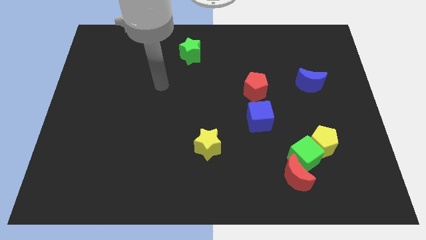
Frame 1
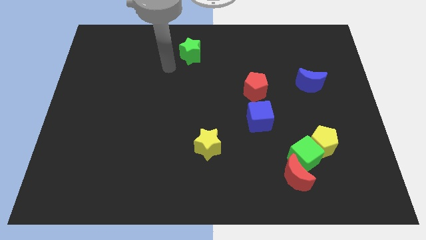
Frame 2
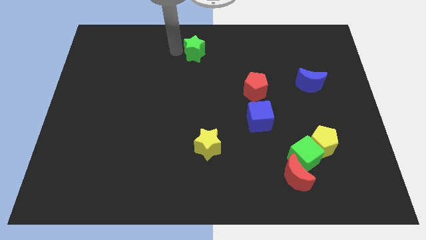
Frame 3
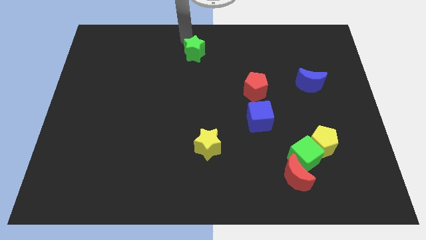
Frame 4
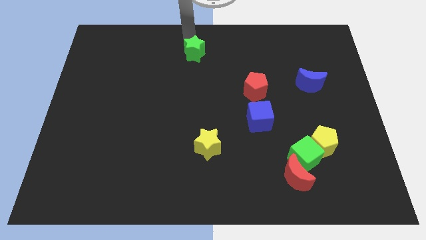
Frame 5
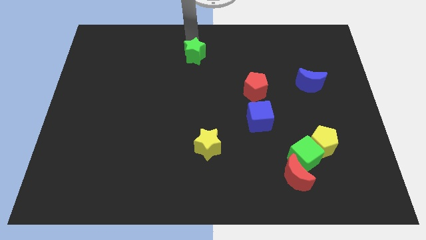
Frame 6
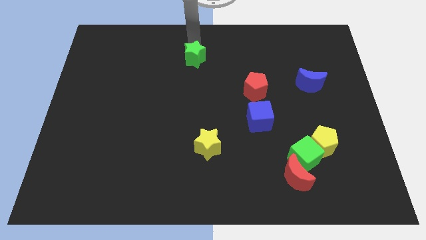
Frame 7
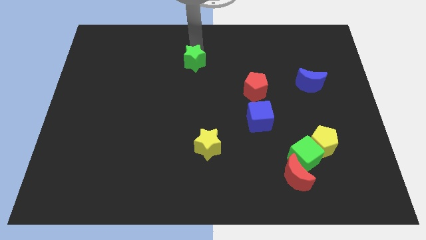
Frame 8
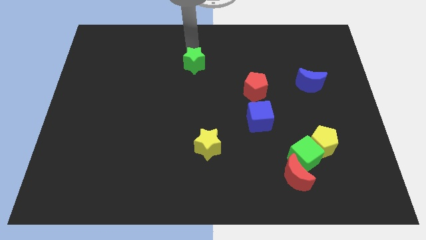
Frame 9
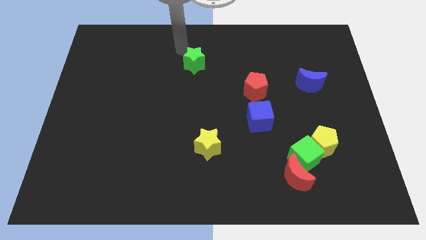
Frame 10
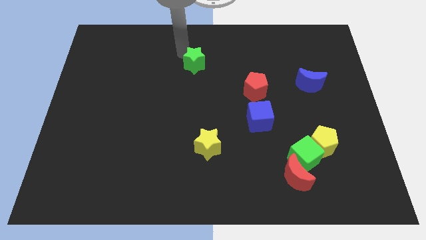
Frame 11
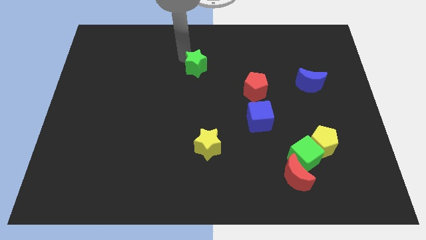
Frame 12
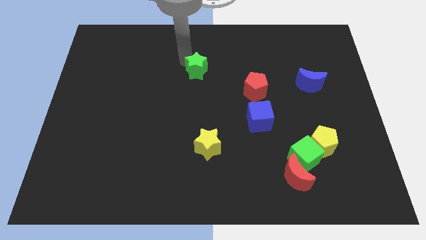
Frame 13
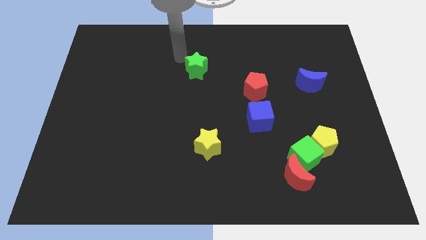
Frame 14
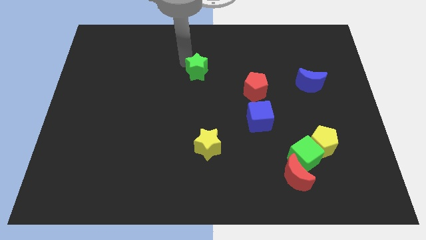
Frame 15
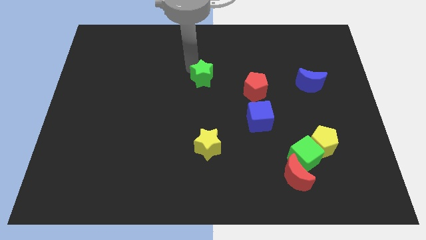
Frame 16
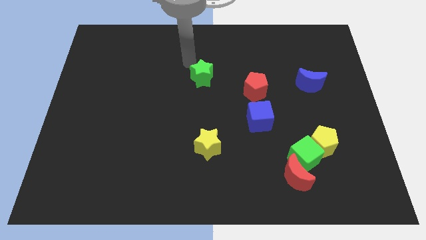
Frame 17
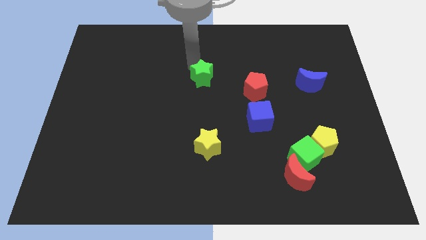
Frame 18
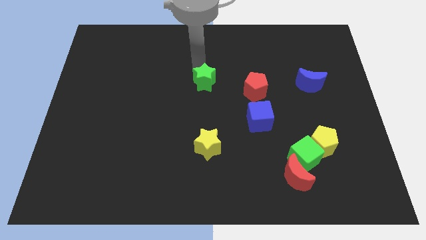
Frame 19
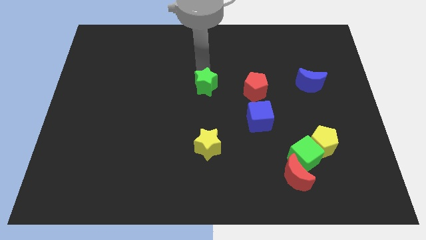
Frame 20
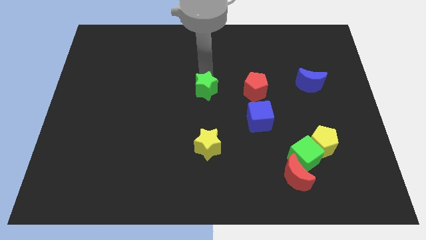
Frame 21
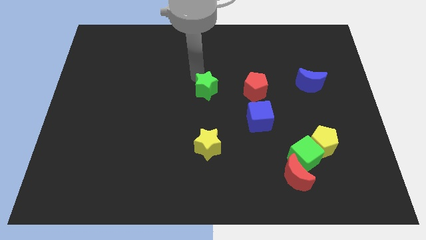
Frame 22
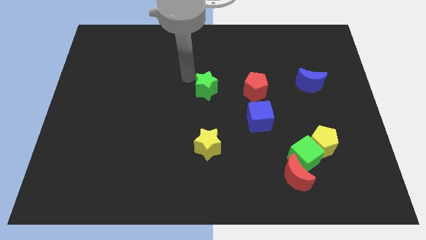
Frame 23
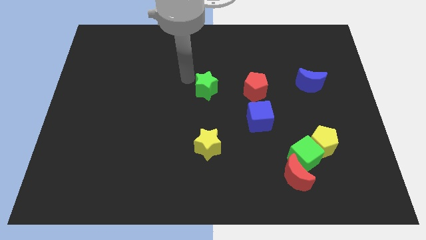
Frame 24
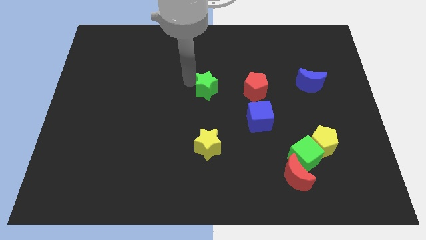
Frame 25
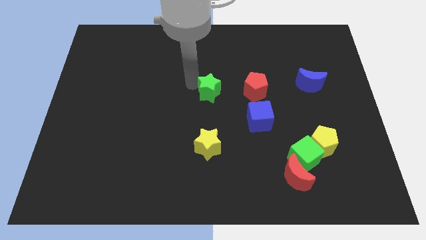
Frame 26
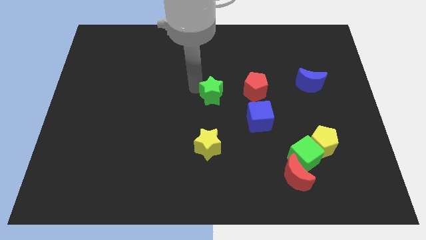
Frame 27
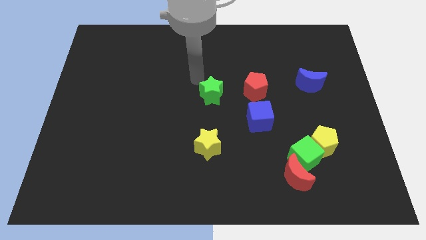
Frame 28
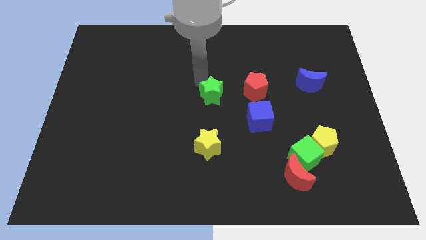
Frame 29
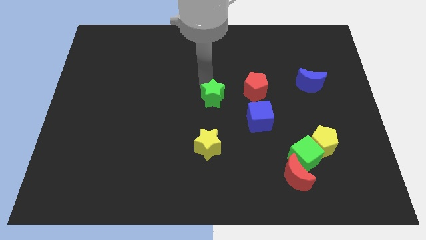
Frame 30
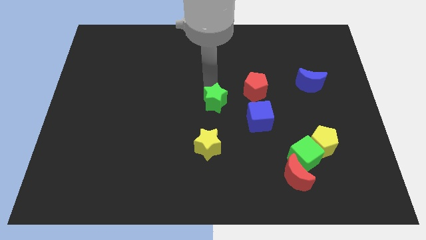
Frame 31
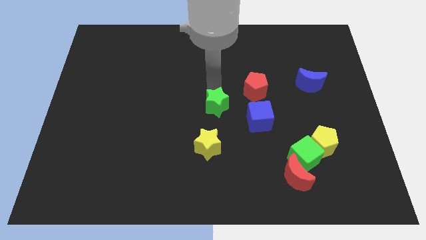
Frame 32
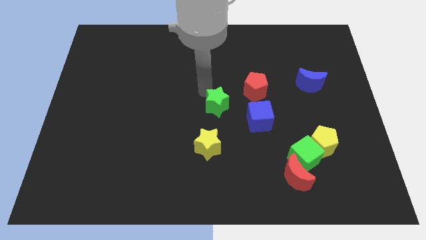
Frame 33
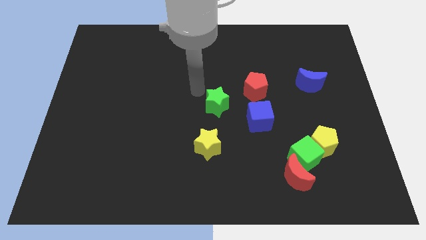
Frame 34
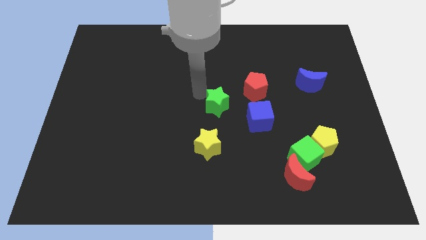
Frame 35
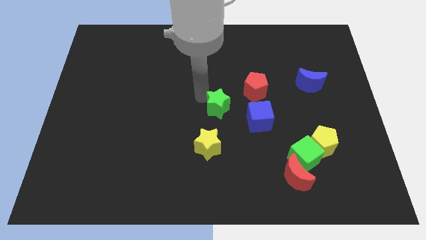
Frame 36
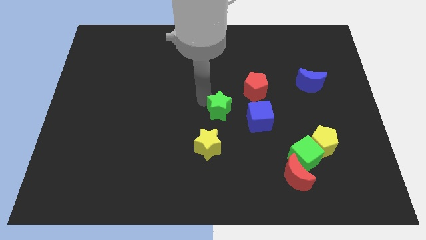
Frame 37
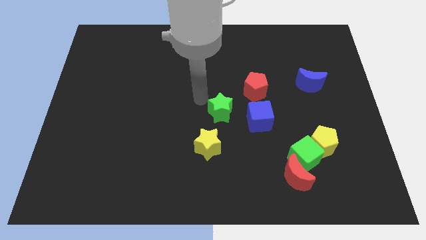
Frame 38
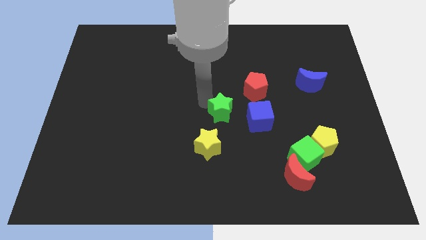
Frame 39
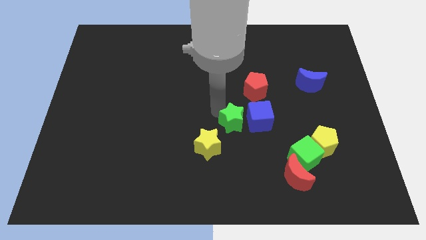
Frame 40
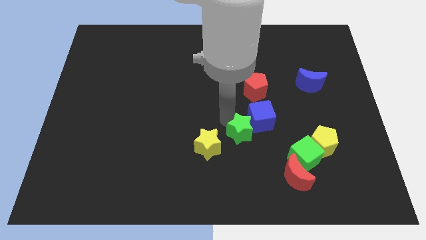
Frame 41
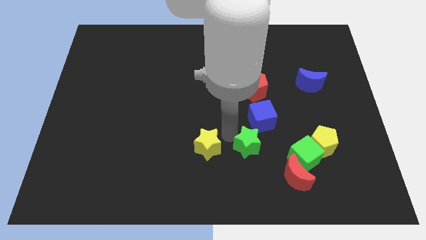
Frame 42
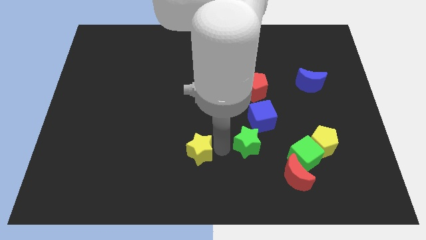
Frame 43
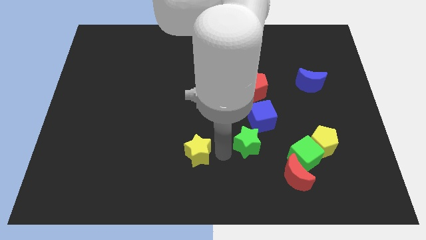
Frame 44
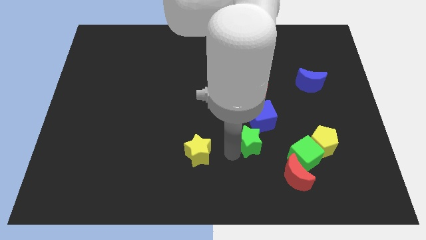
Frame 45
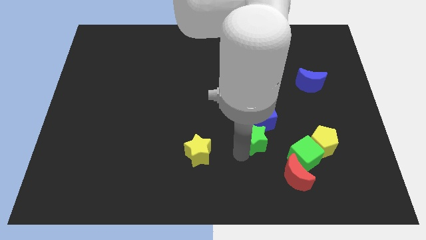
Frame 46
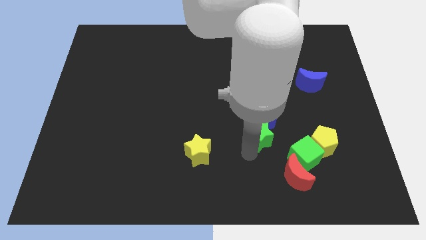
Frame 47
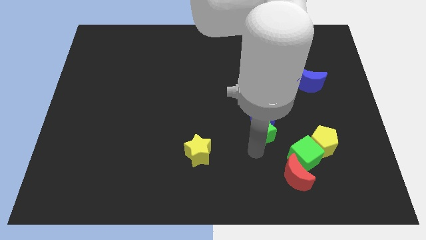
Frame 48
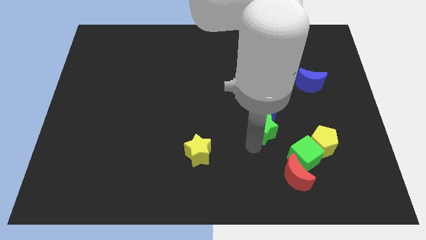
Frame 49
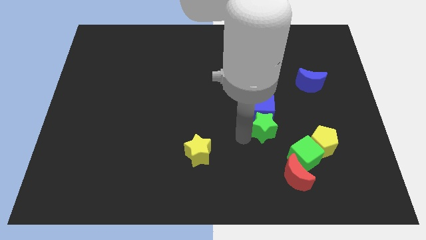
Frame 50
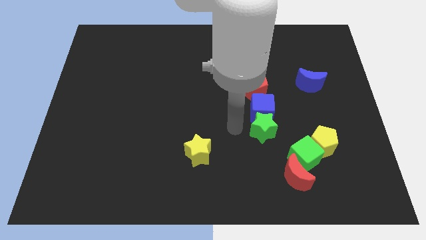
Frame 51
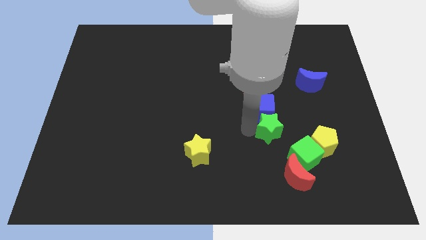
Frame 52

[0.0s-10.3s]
slide the green star to the top of the red moon

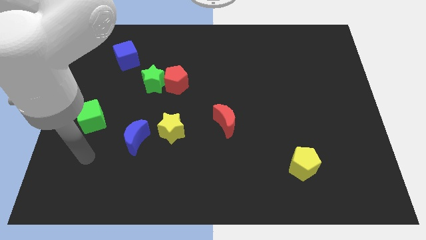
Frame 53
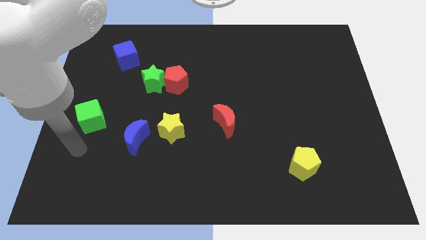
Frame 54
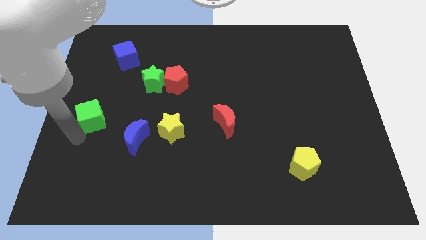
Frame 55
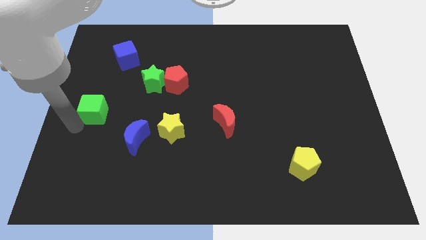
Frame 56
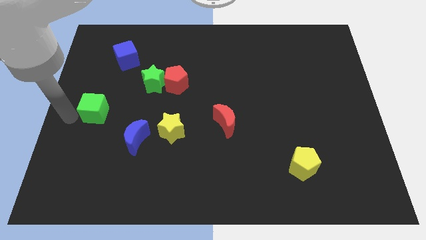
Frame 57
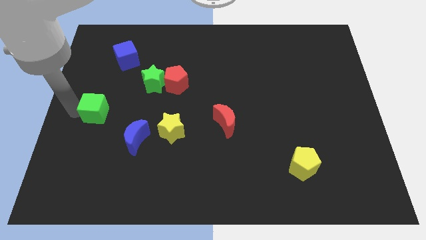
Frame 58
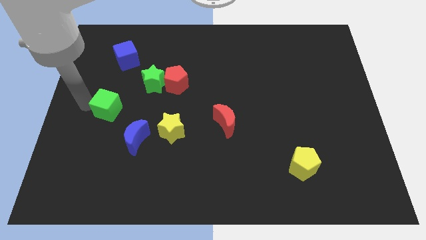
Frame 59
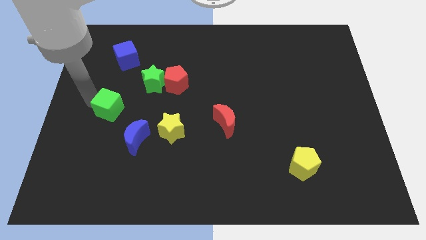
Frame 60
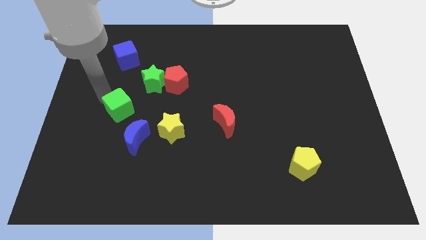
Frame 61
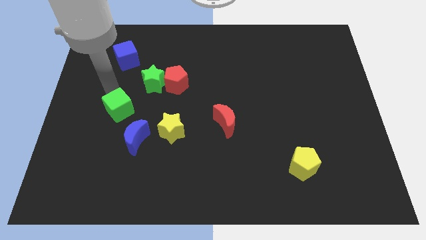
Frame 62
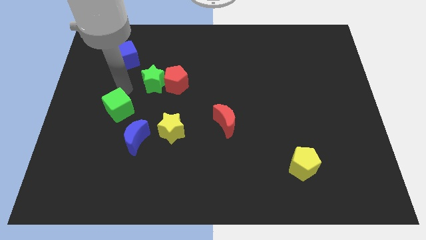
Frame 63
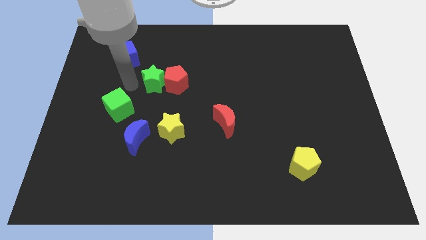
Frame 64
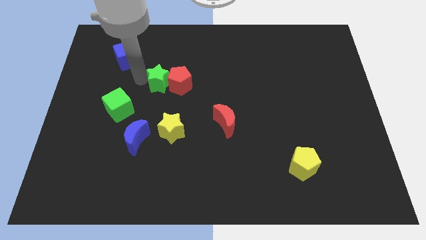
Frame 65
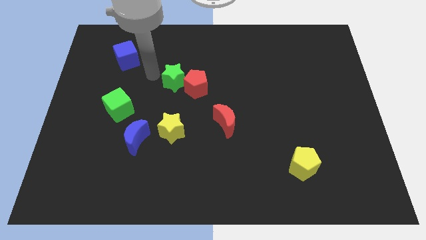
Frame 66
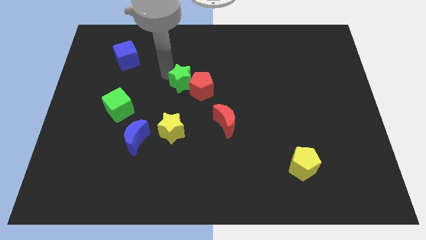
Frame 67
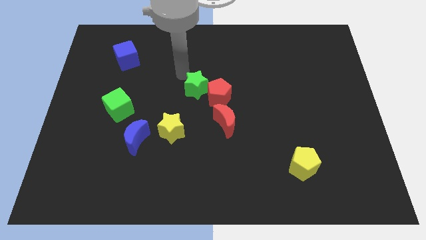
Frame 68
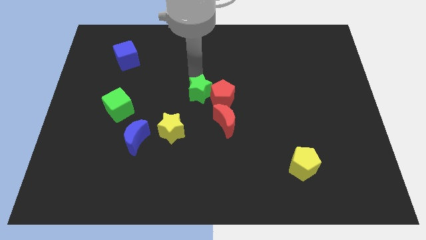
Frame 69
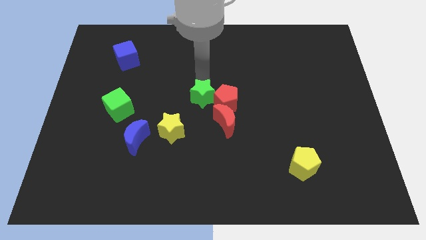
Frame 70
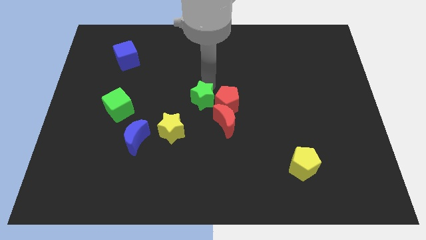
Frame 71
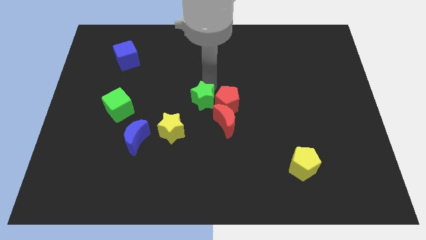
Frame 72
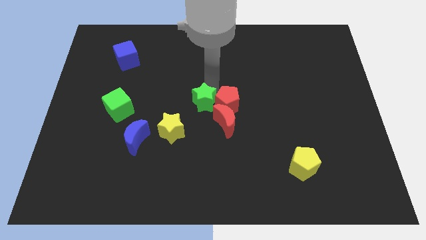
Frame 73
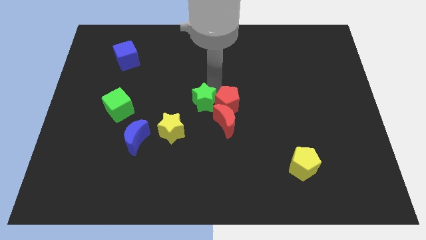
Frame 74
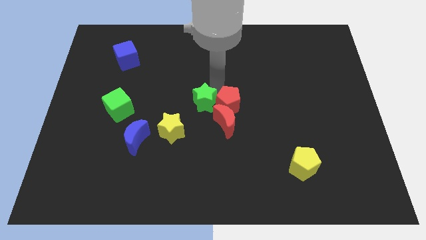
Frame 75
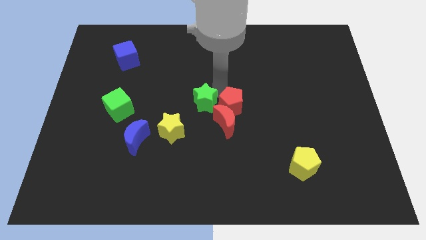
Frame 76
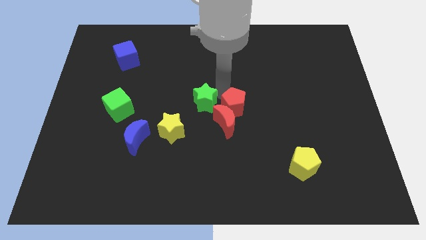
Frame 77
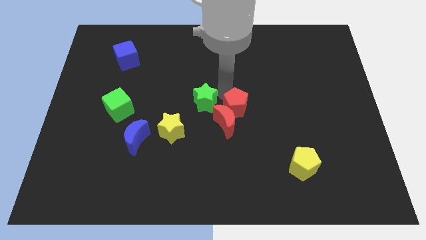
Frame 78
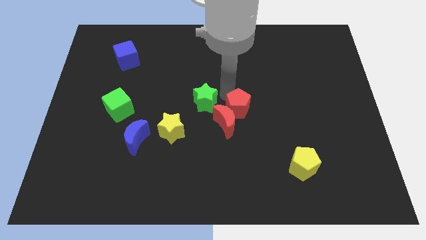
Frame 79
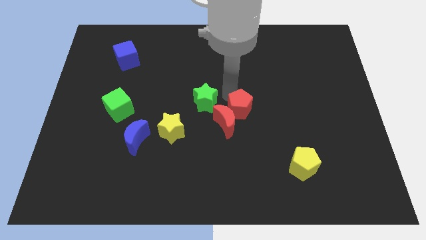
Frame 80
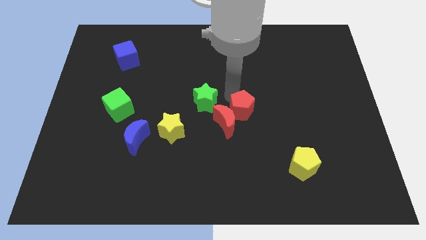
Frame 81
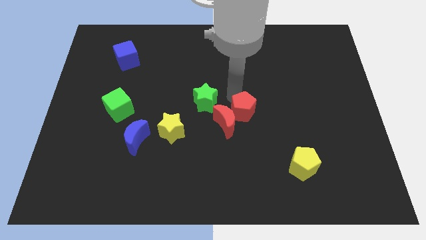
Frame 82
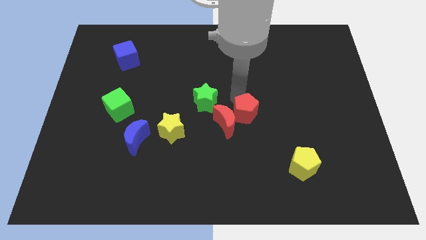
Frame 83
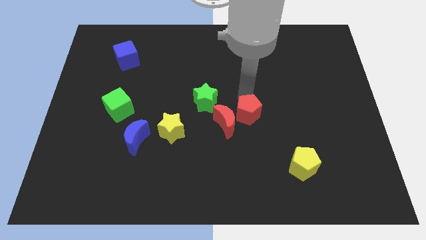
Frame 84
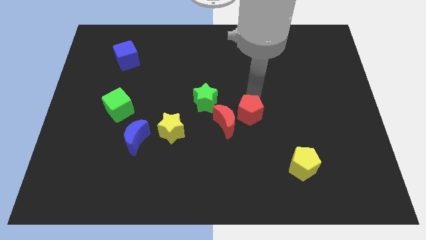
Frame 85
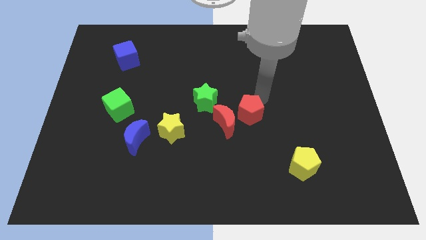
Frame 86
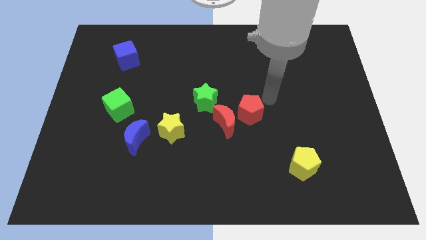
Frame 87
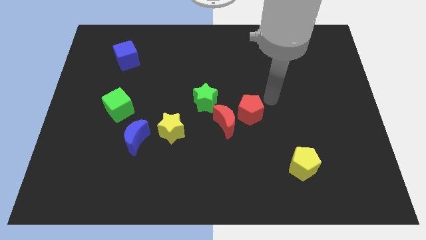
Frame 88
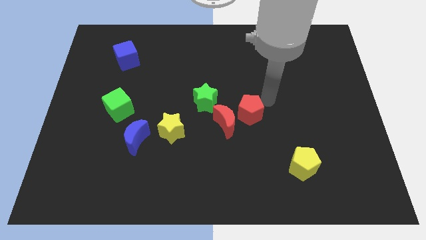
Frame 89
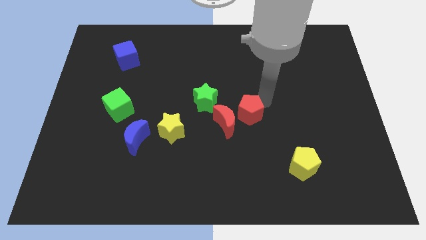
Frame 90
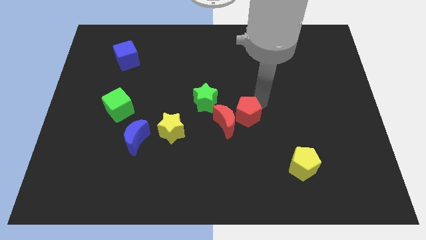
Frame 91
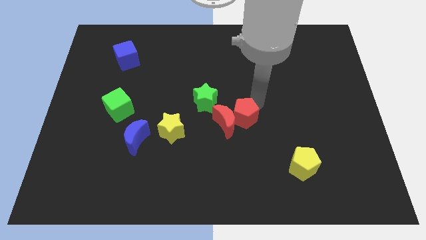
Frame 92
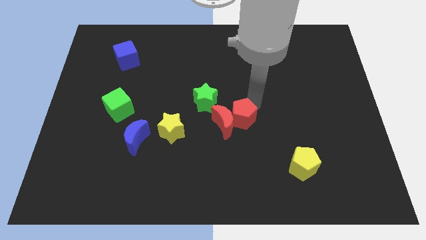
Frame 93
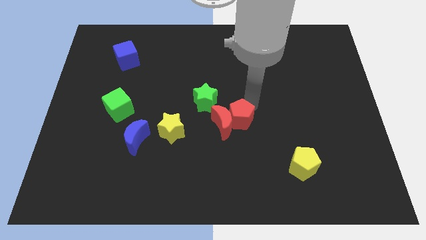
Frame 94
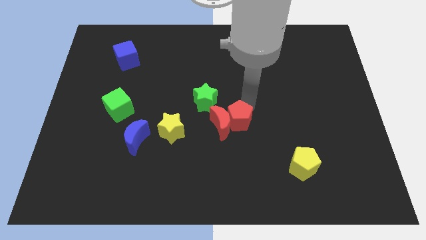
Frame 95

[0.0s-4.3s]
put the red pentagon to the right side of the yellow star
